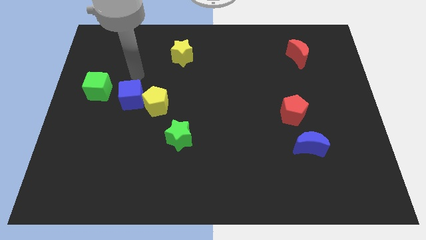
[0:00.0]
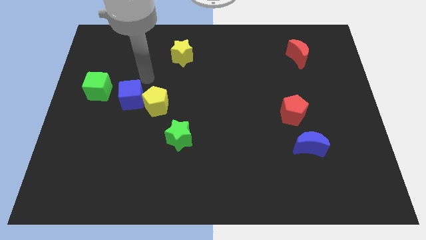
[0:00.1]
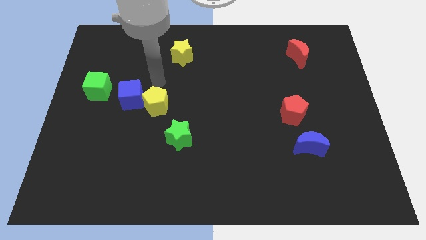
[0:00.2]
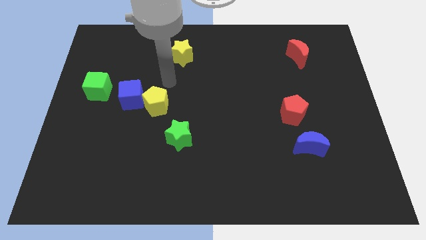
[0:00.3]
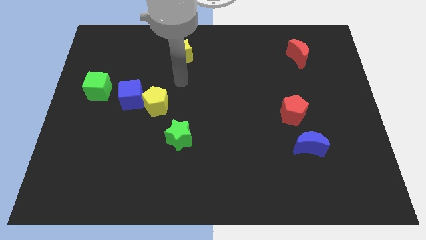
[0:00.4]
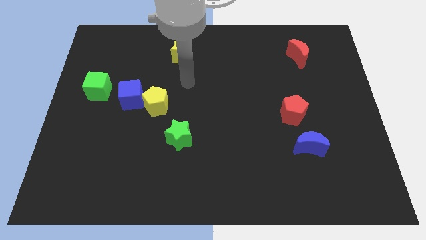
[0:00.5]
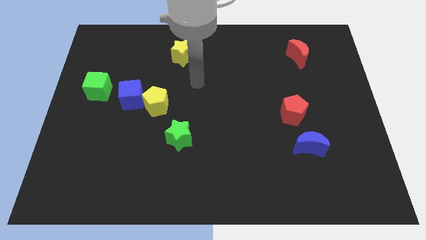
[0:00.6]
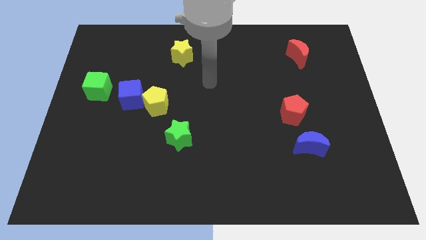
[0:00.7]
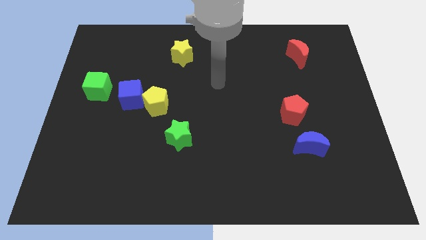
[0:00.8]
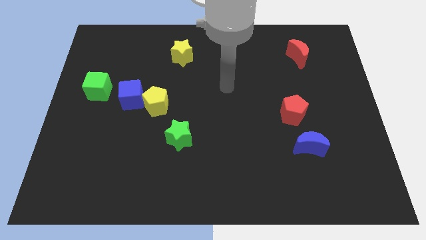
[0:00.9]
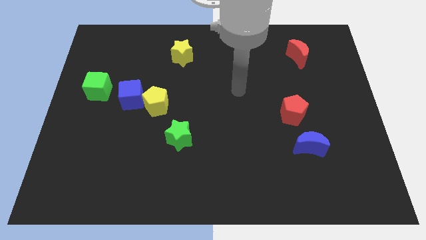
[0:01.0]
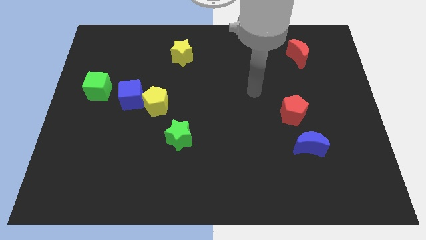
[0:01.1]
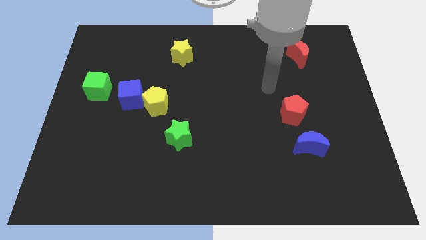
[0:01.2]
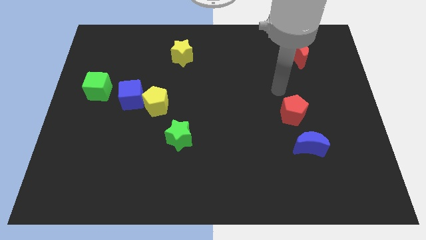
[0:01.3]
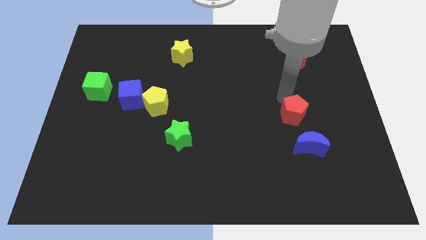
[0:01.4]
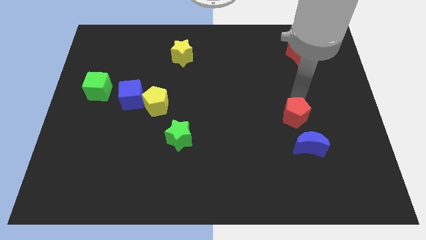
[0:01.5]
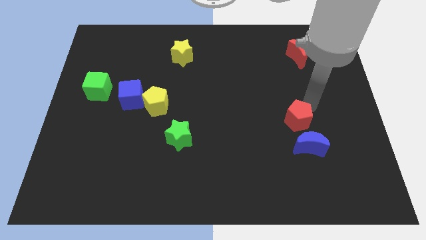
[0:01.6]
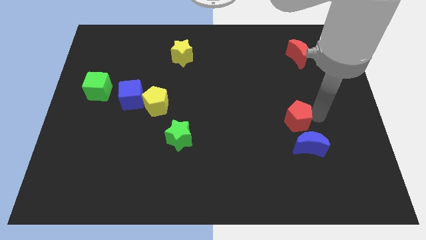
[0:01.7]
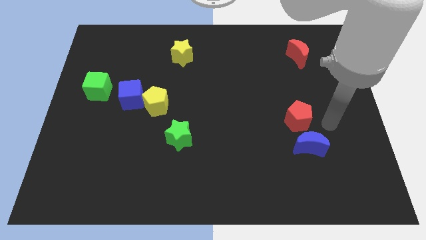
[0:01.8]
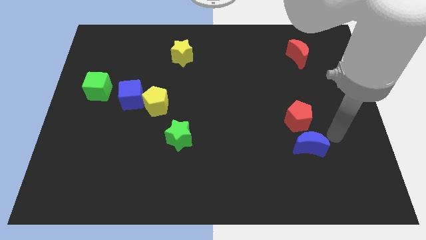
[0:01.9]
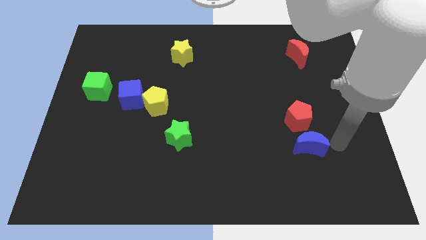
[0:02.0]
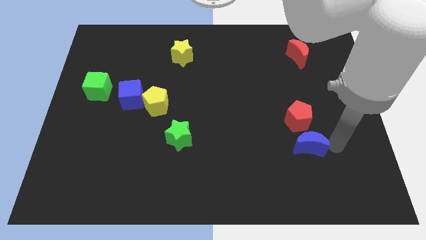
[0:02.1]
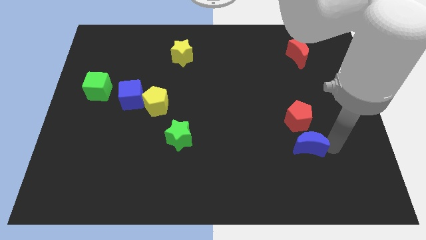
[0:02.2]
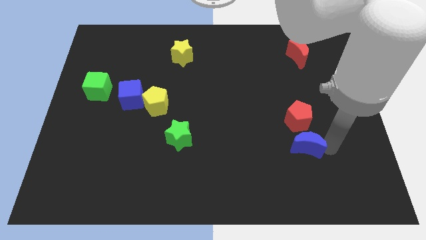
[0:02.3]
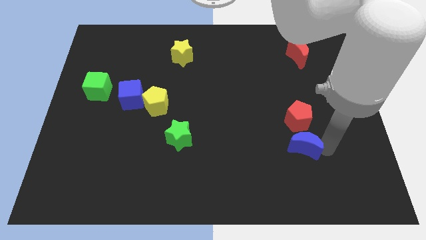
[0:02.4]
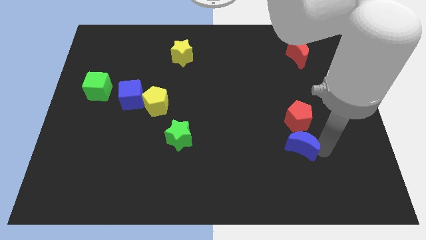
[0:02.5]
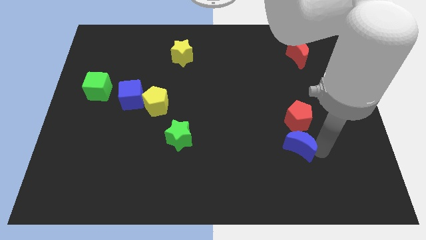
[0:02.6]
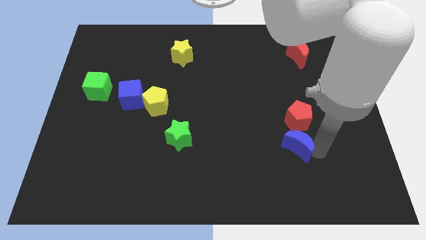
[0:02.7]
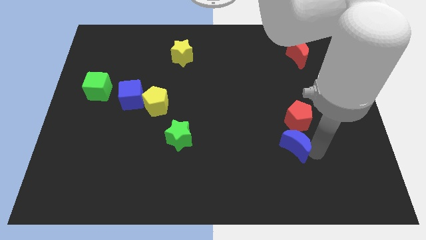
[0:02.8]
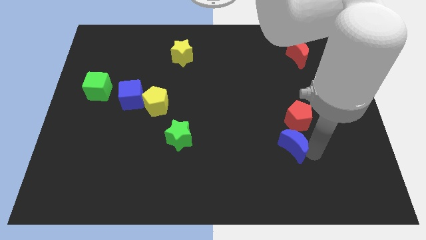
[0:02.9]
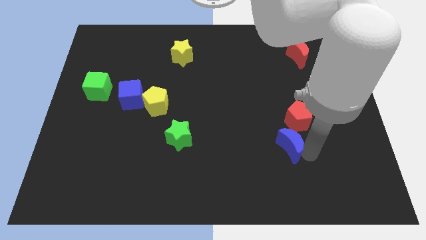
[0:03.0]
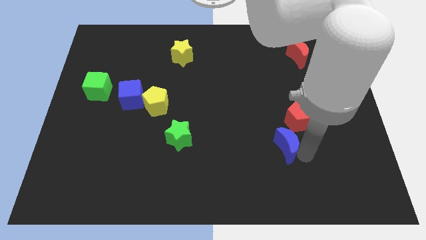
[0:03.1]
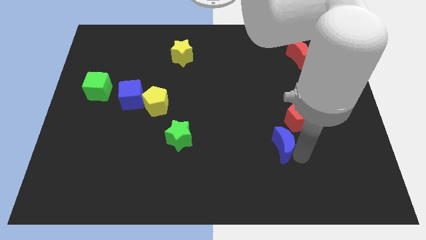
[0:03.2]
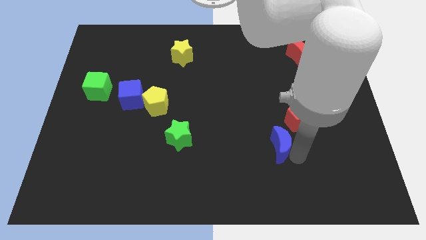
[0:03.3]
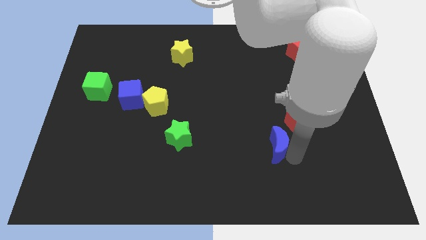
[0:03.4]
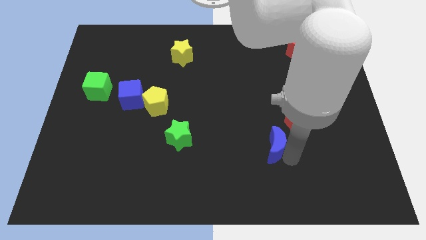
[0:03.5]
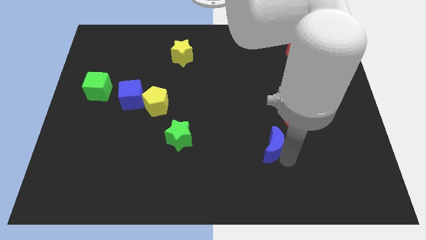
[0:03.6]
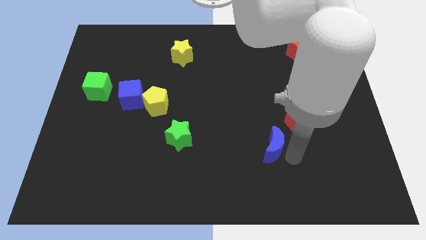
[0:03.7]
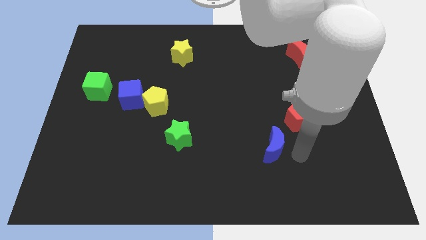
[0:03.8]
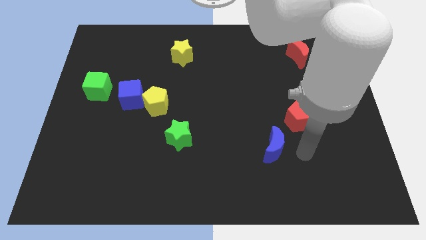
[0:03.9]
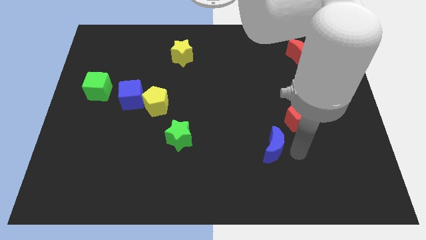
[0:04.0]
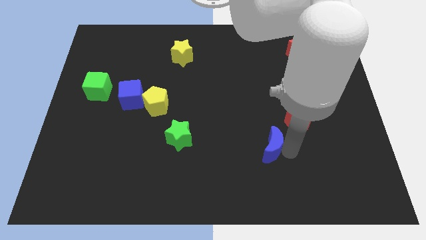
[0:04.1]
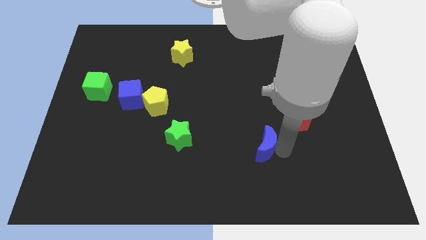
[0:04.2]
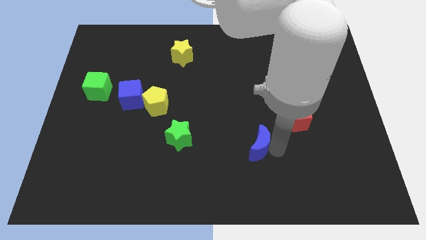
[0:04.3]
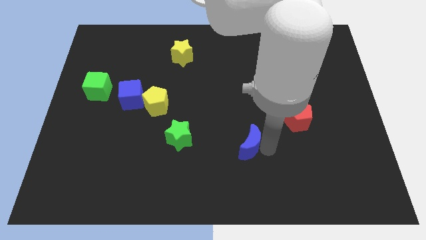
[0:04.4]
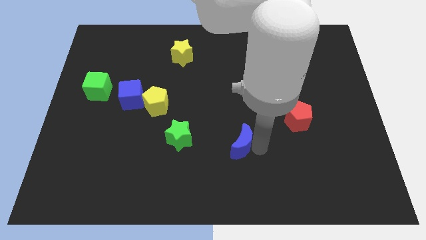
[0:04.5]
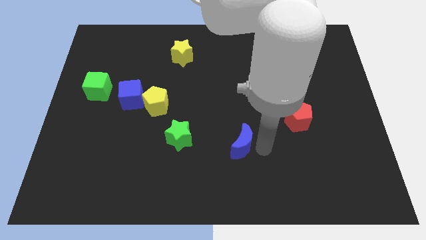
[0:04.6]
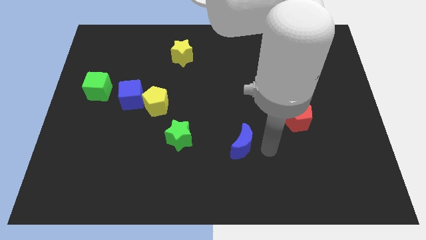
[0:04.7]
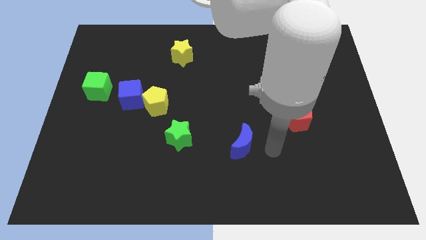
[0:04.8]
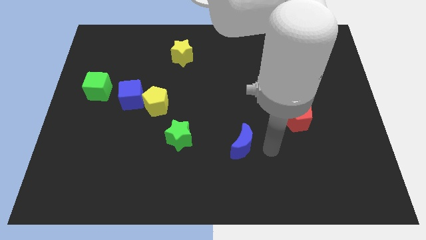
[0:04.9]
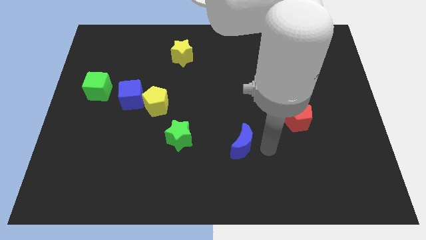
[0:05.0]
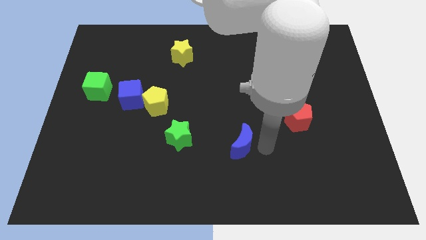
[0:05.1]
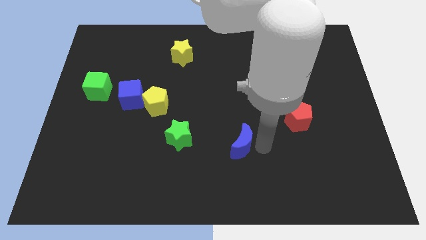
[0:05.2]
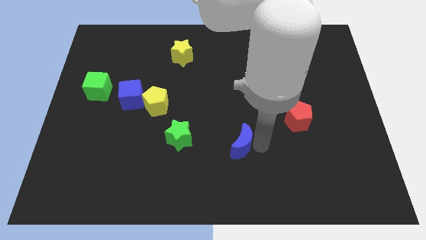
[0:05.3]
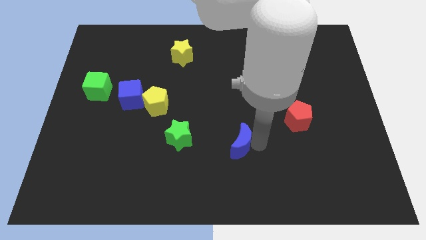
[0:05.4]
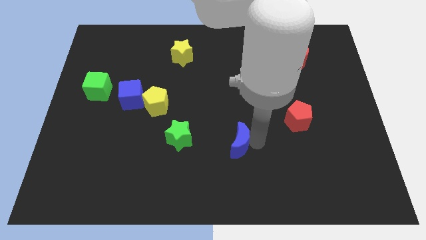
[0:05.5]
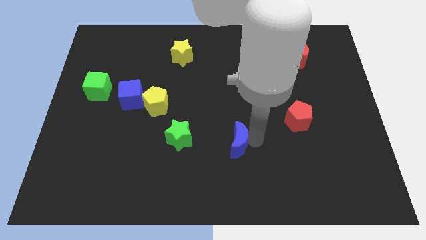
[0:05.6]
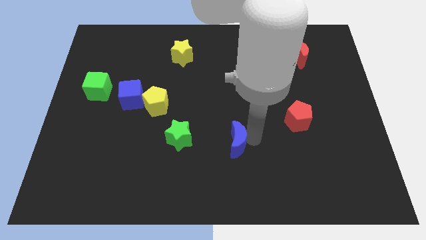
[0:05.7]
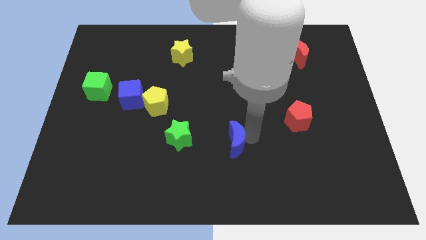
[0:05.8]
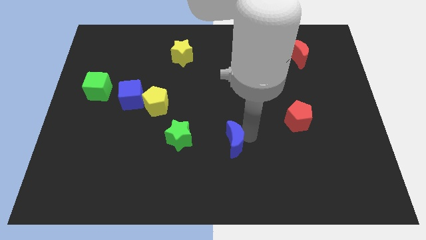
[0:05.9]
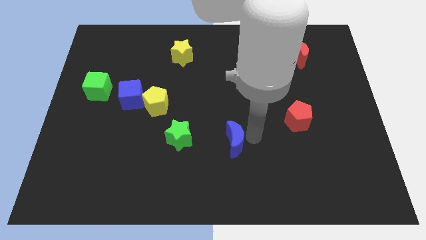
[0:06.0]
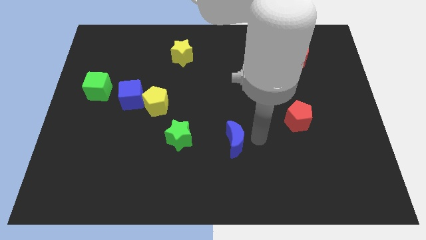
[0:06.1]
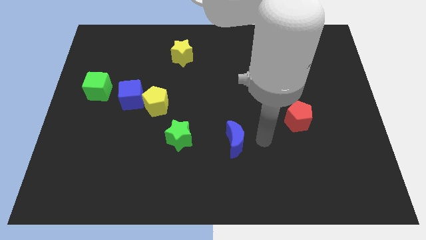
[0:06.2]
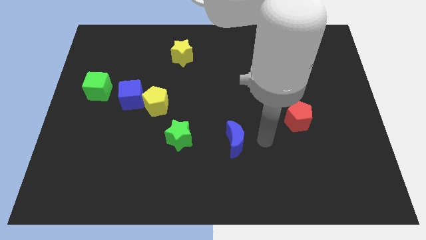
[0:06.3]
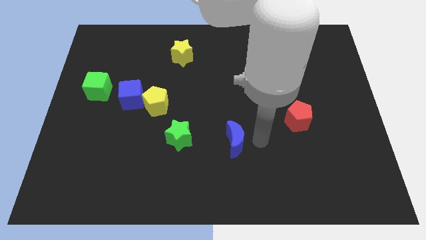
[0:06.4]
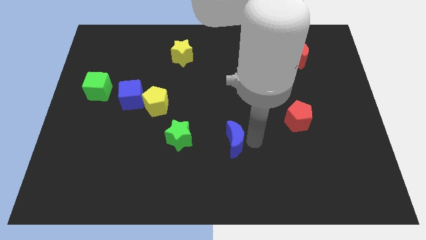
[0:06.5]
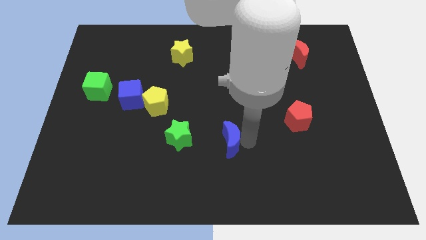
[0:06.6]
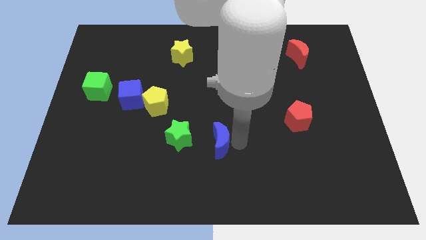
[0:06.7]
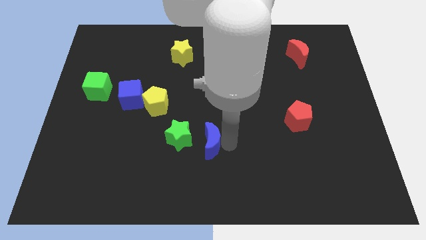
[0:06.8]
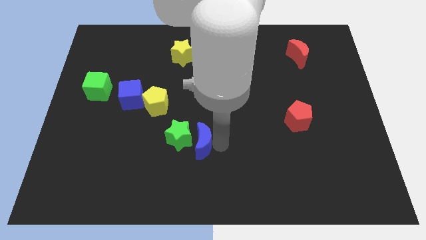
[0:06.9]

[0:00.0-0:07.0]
put the blue moon towards the green star

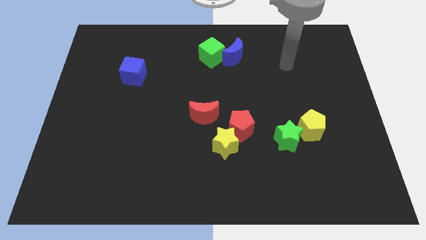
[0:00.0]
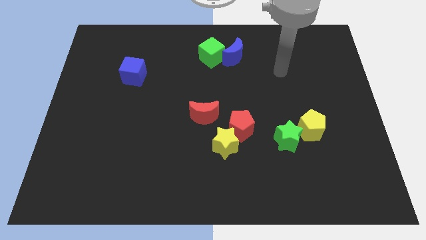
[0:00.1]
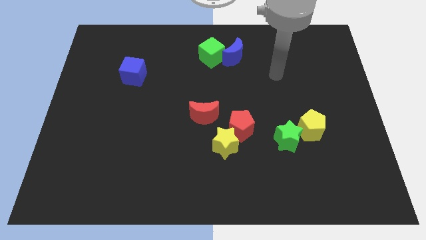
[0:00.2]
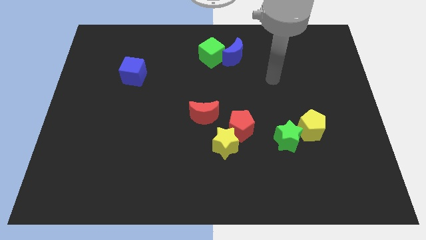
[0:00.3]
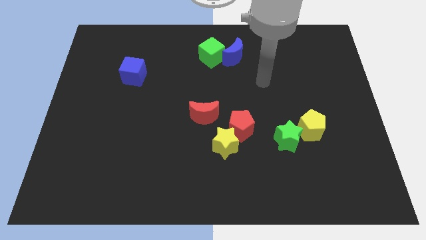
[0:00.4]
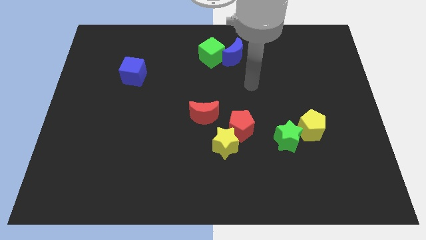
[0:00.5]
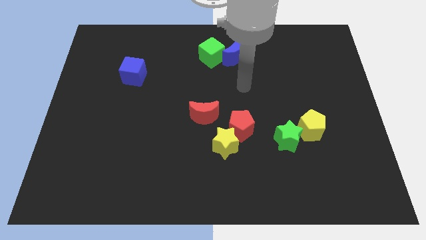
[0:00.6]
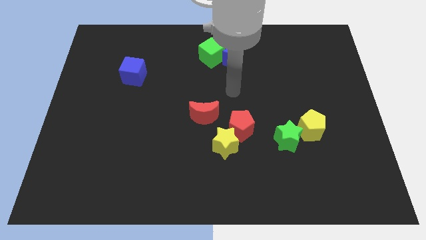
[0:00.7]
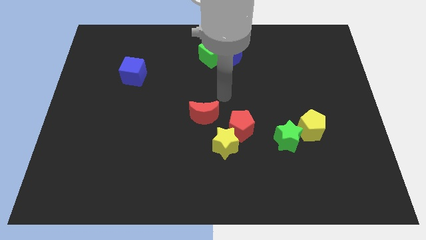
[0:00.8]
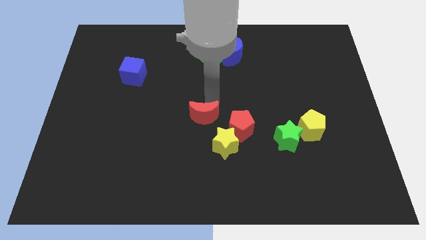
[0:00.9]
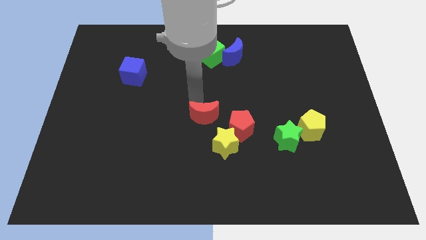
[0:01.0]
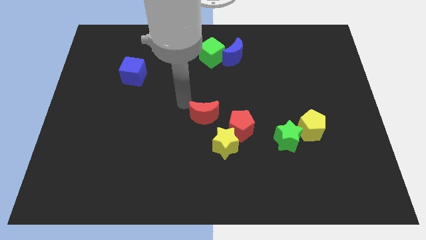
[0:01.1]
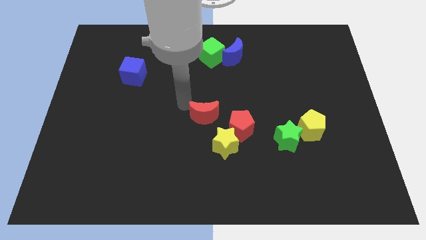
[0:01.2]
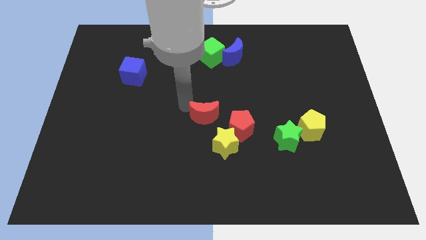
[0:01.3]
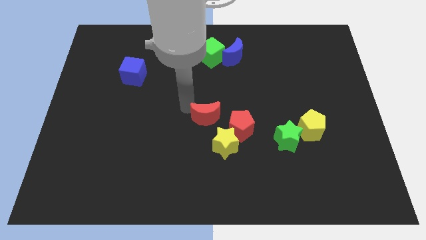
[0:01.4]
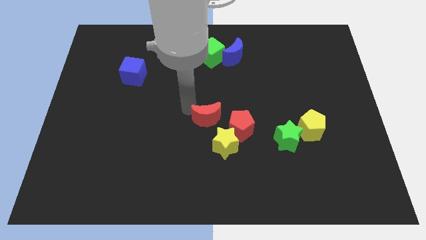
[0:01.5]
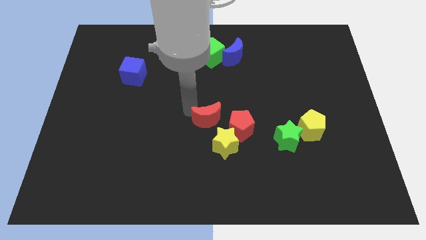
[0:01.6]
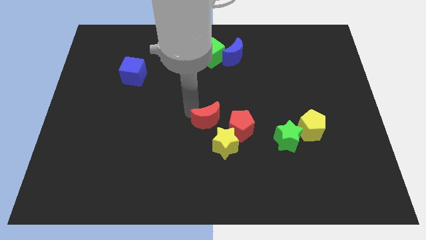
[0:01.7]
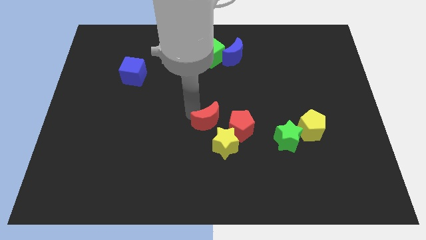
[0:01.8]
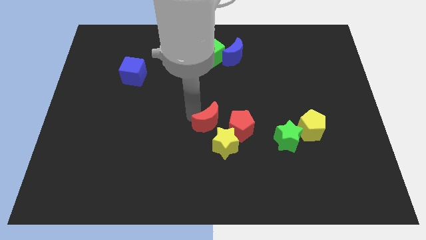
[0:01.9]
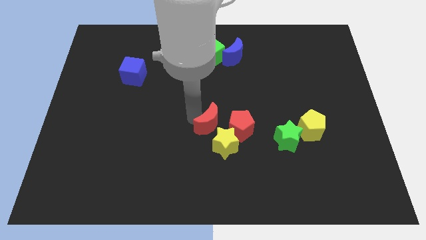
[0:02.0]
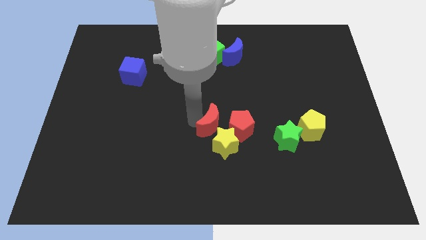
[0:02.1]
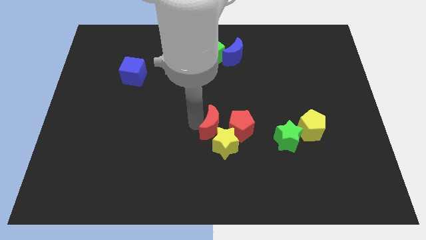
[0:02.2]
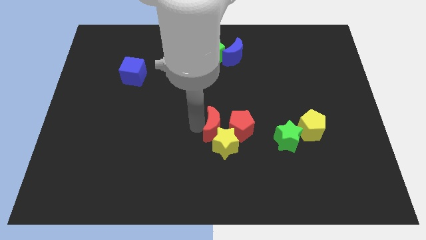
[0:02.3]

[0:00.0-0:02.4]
move the red moon to the red pentagon
